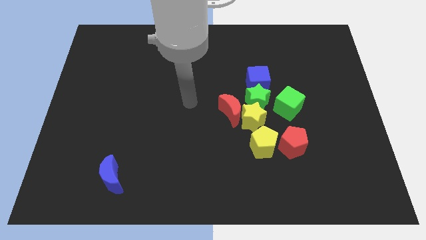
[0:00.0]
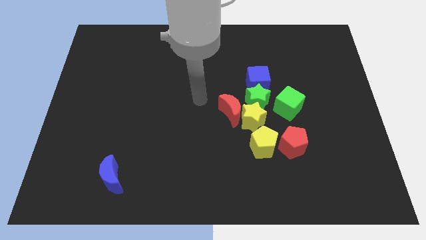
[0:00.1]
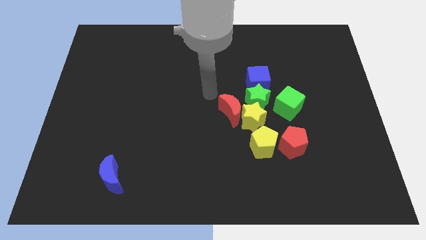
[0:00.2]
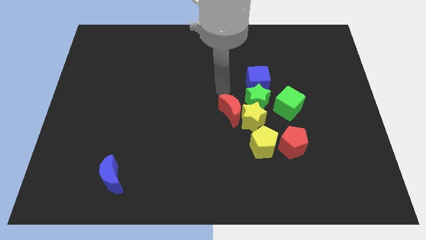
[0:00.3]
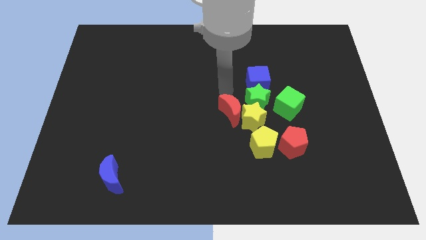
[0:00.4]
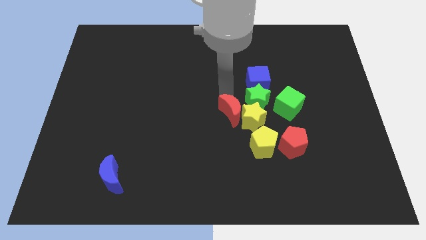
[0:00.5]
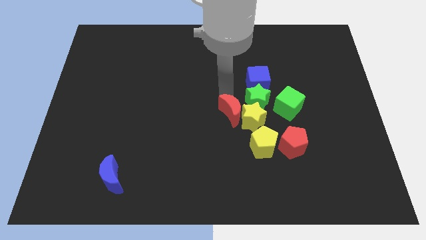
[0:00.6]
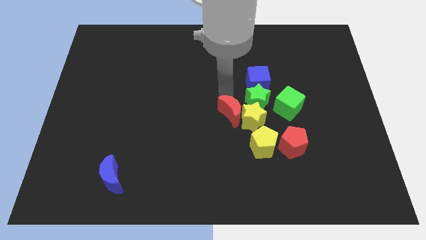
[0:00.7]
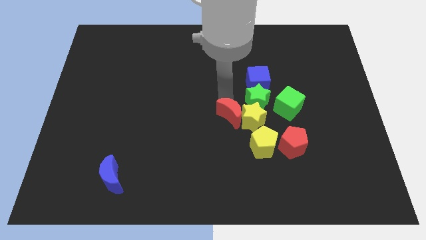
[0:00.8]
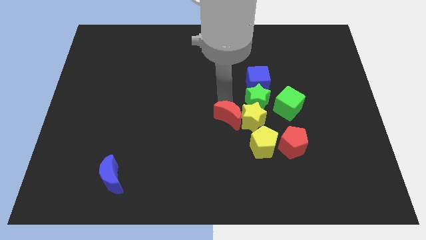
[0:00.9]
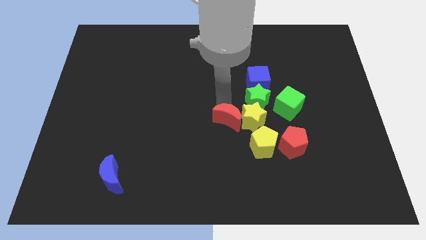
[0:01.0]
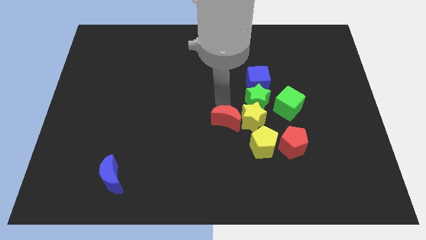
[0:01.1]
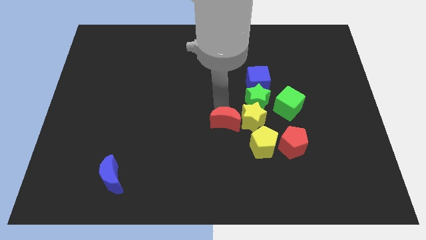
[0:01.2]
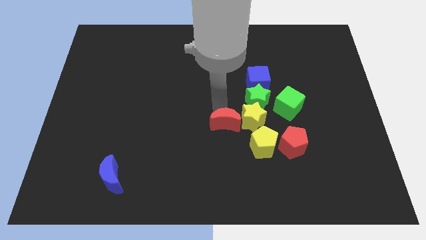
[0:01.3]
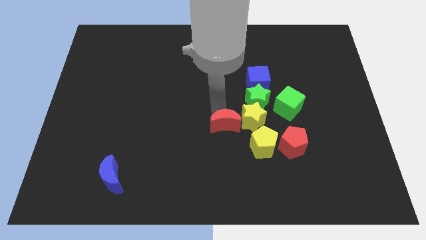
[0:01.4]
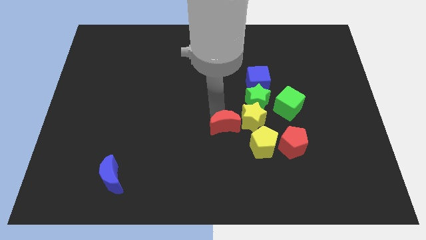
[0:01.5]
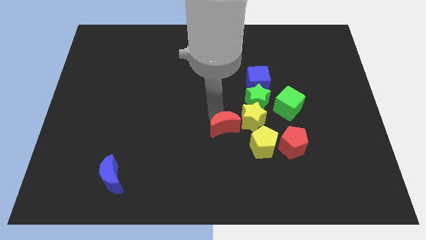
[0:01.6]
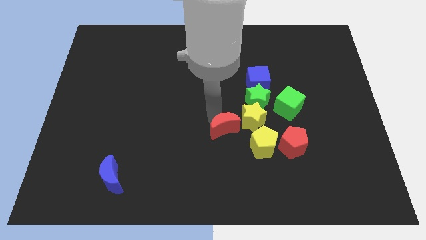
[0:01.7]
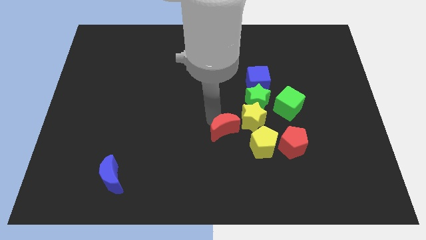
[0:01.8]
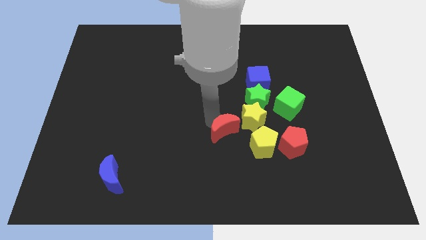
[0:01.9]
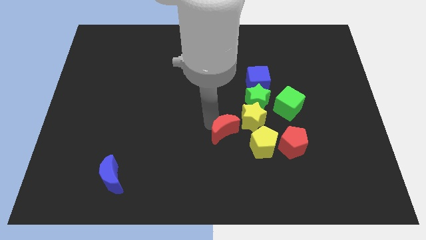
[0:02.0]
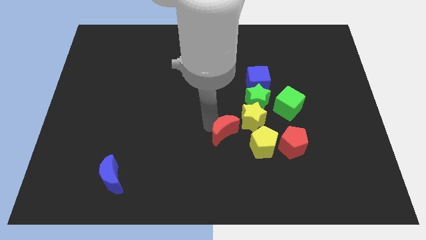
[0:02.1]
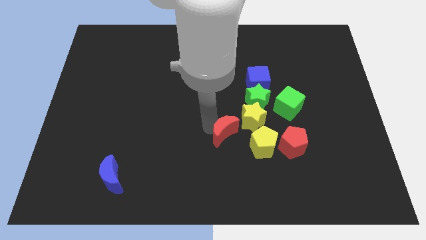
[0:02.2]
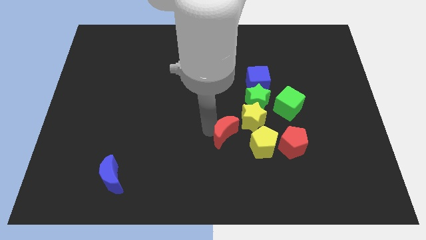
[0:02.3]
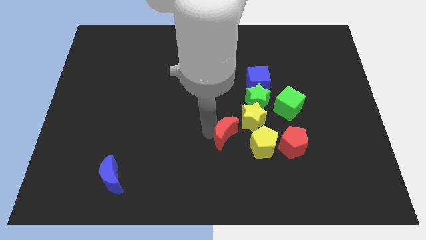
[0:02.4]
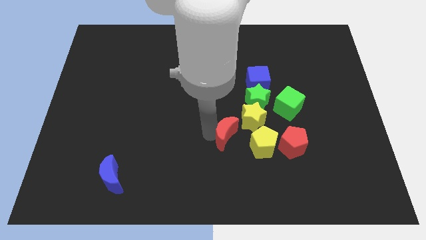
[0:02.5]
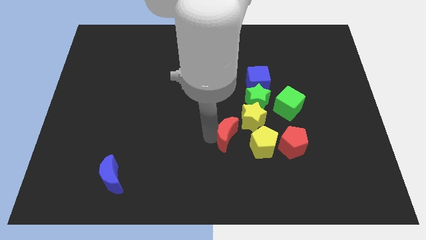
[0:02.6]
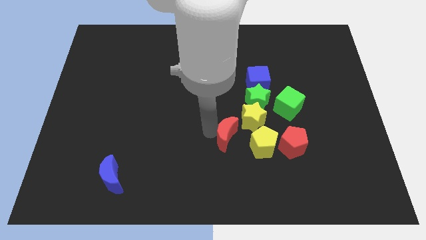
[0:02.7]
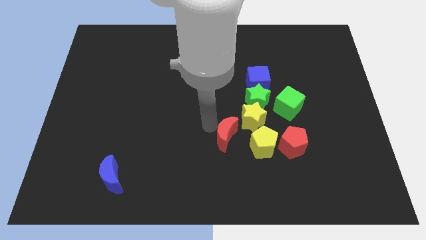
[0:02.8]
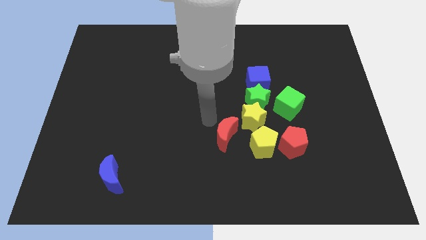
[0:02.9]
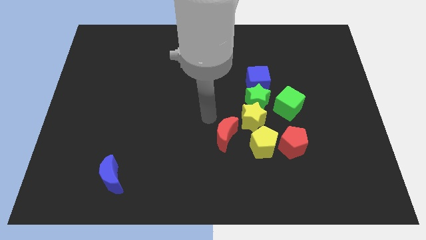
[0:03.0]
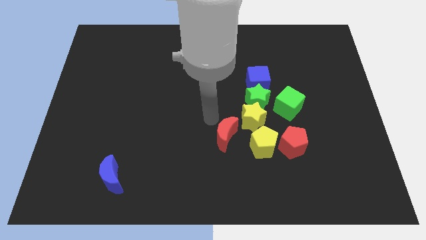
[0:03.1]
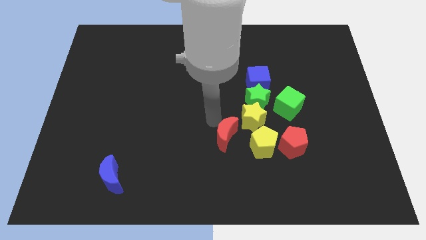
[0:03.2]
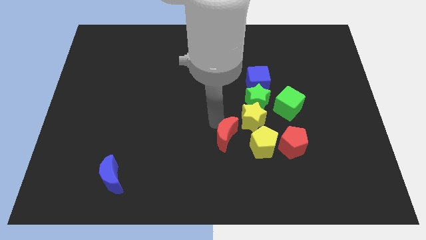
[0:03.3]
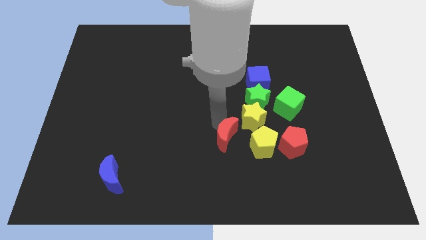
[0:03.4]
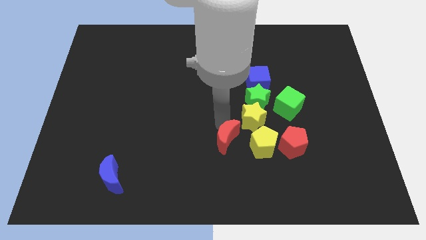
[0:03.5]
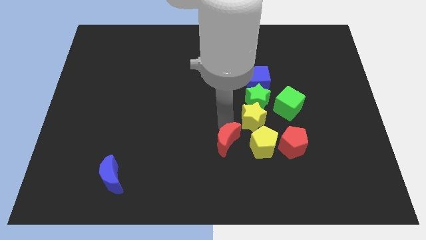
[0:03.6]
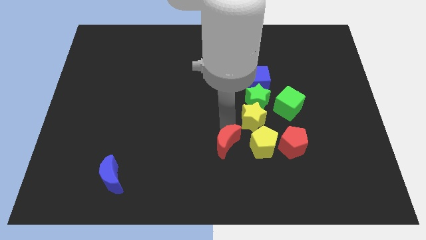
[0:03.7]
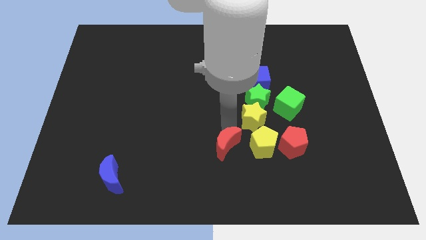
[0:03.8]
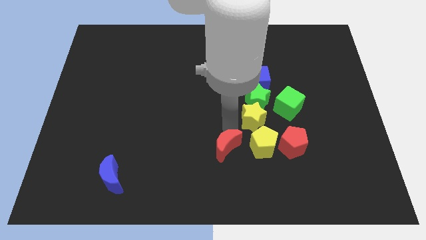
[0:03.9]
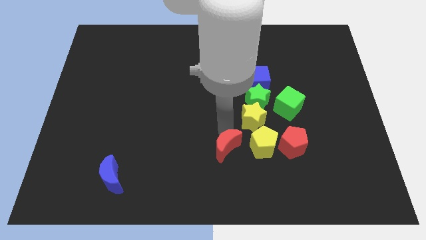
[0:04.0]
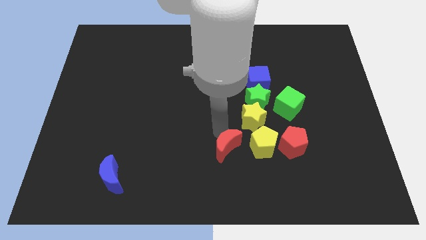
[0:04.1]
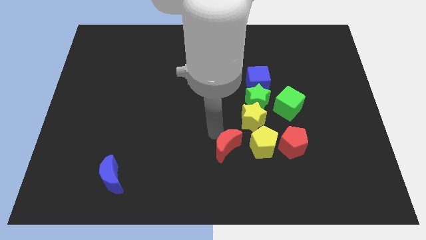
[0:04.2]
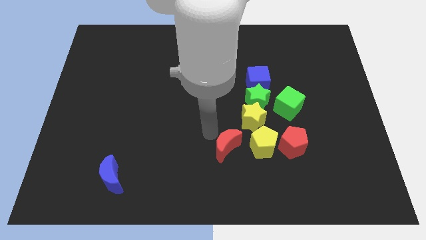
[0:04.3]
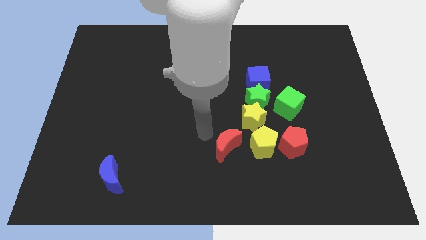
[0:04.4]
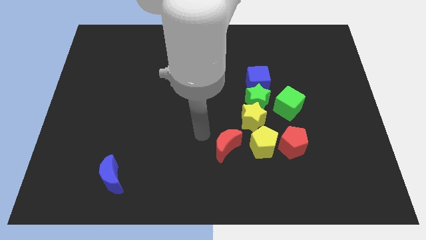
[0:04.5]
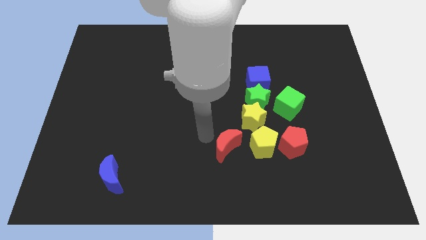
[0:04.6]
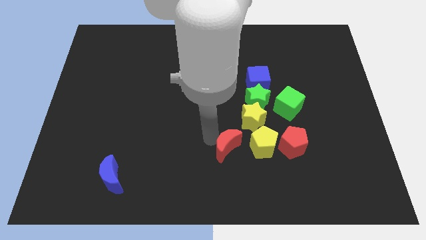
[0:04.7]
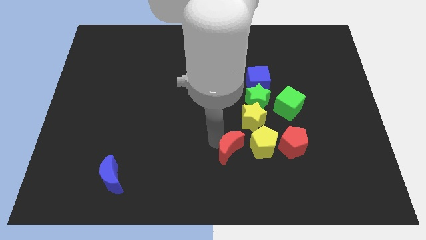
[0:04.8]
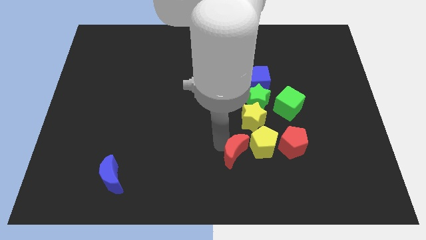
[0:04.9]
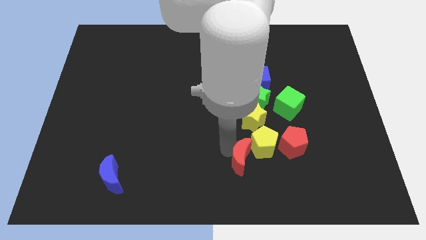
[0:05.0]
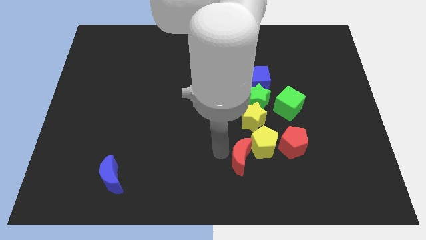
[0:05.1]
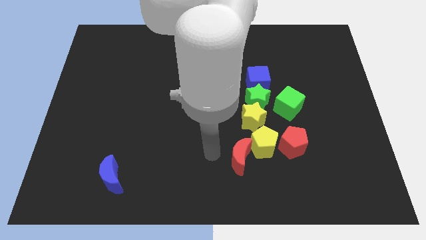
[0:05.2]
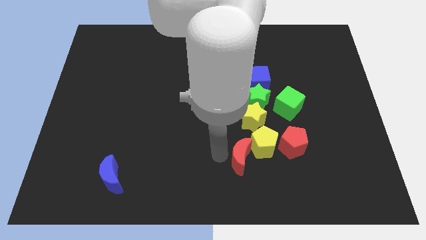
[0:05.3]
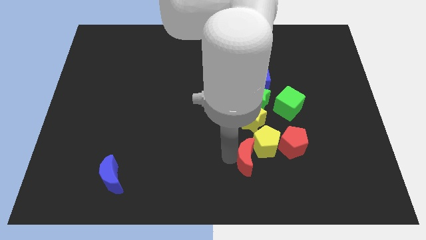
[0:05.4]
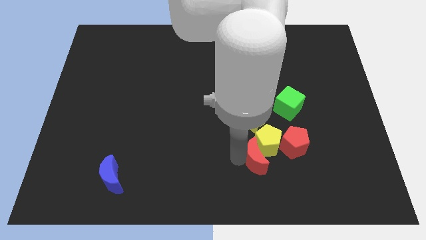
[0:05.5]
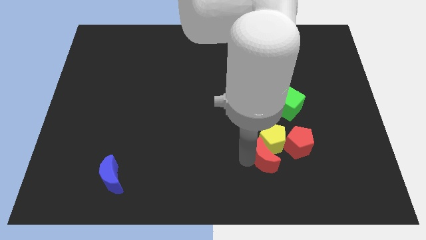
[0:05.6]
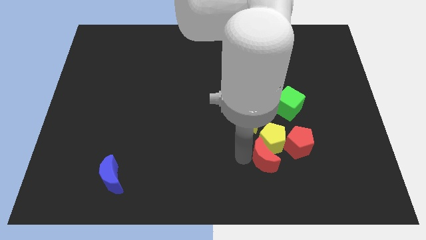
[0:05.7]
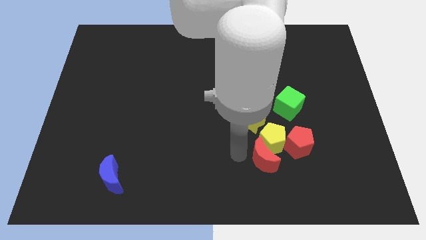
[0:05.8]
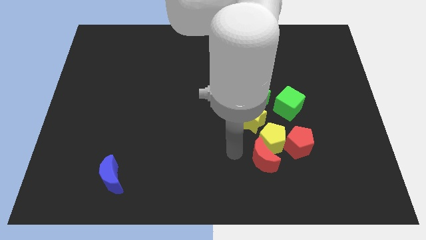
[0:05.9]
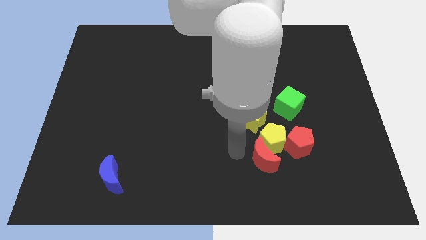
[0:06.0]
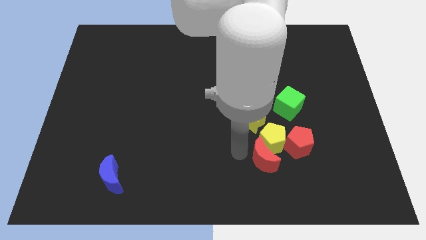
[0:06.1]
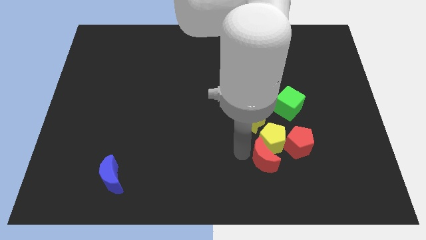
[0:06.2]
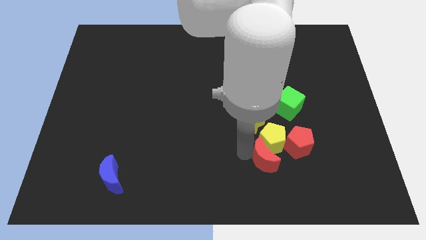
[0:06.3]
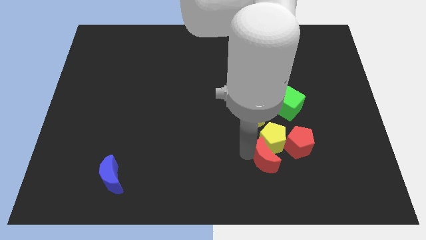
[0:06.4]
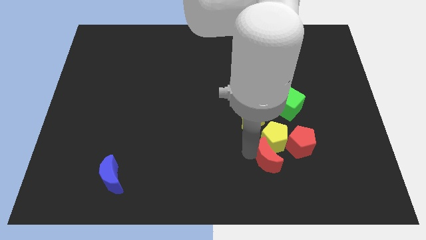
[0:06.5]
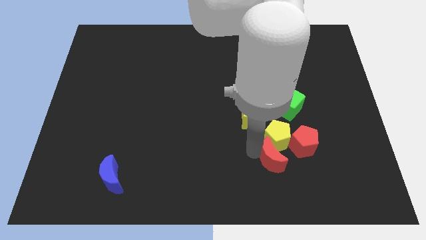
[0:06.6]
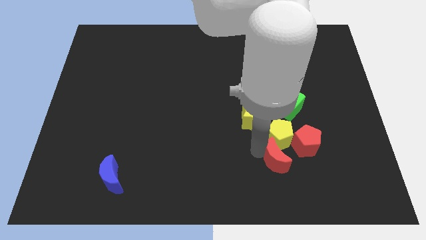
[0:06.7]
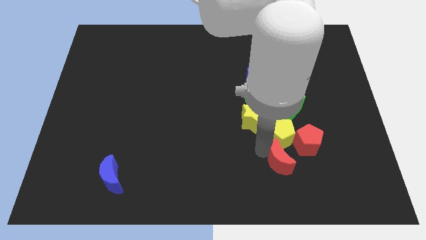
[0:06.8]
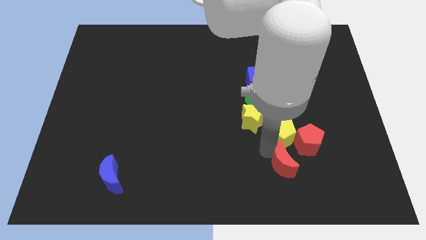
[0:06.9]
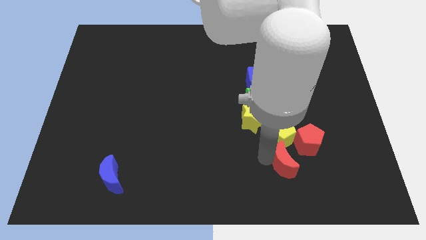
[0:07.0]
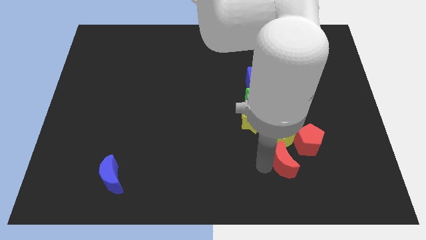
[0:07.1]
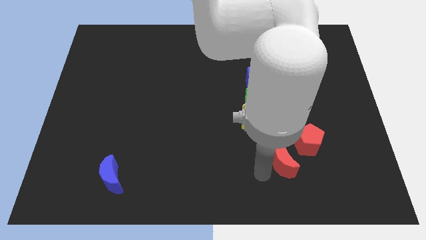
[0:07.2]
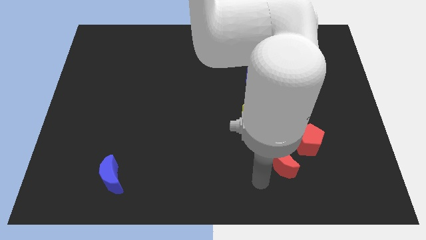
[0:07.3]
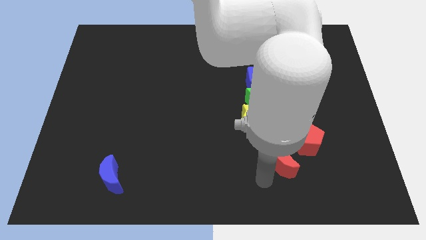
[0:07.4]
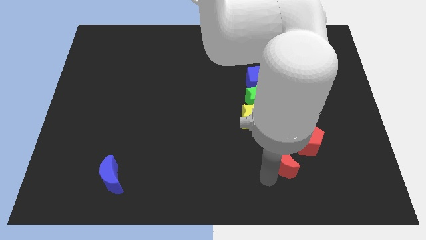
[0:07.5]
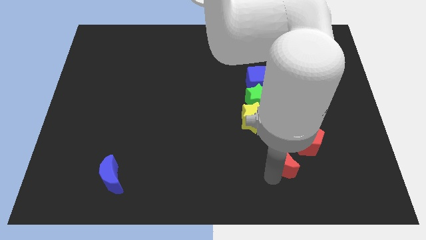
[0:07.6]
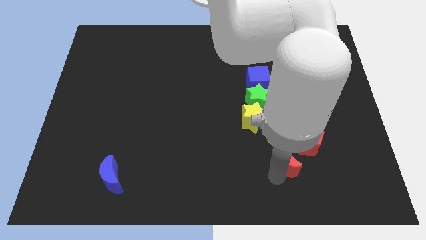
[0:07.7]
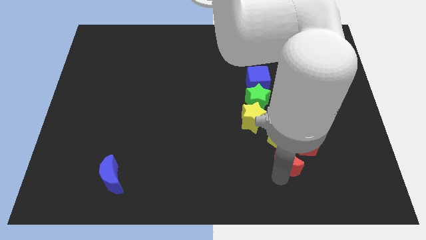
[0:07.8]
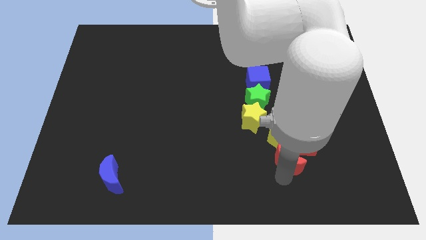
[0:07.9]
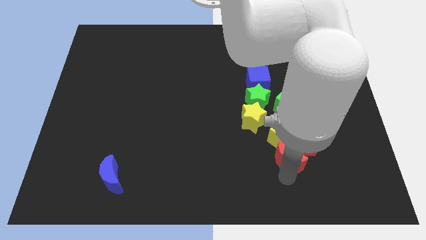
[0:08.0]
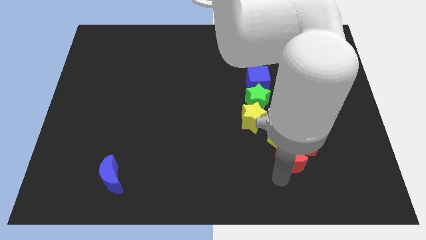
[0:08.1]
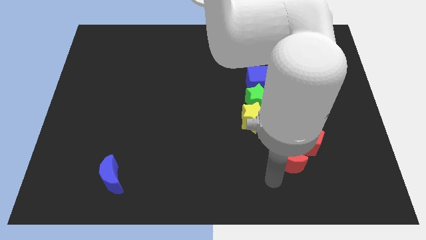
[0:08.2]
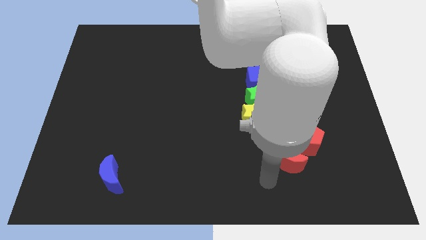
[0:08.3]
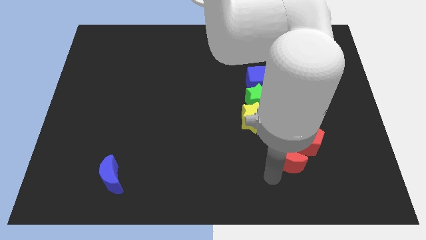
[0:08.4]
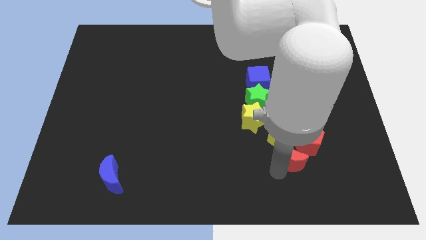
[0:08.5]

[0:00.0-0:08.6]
push the red moon next to the red pentagon
